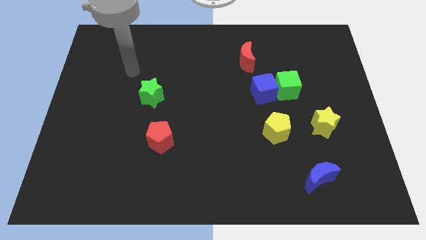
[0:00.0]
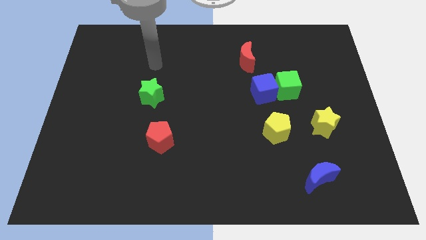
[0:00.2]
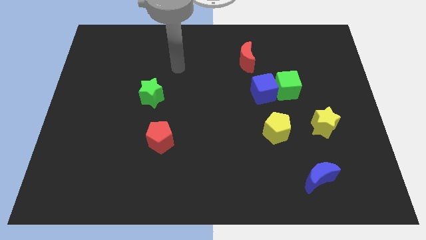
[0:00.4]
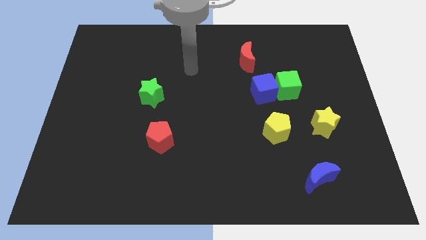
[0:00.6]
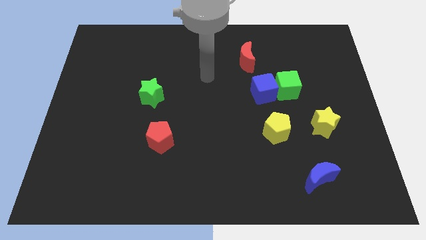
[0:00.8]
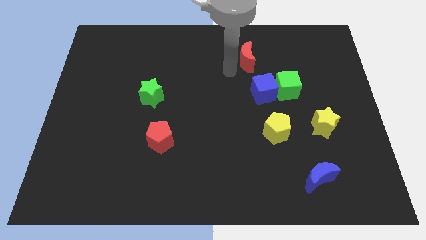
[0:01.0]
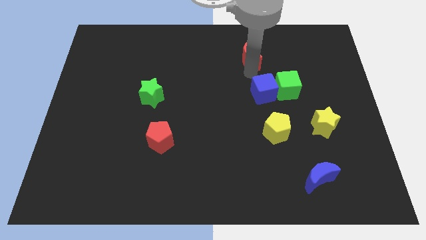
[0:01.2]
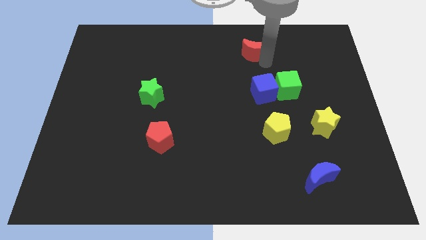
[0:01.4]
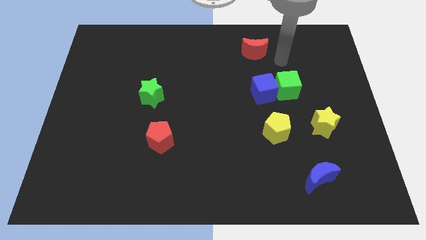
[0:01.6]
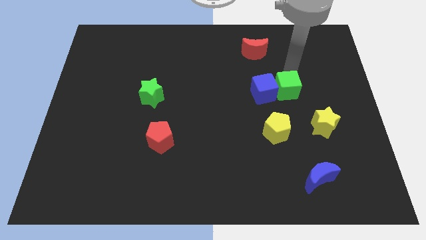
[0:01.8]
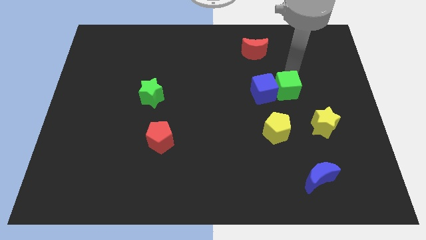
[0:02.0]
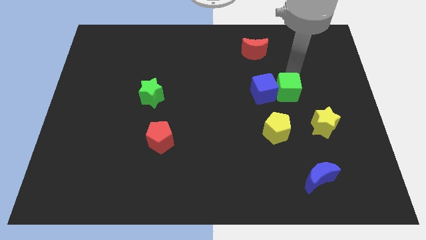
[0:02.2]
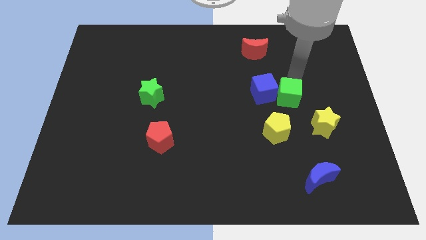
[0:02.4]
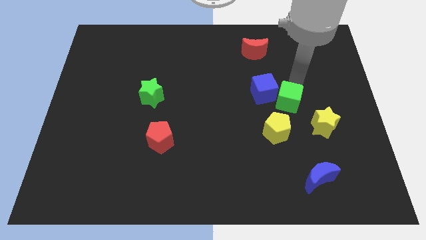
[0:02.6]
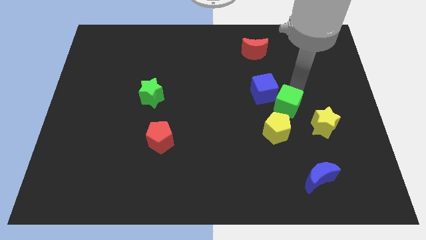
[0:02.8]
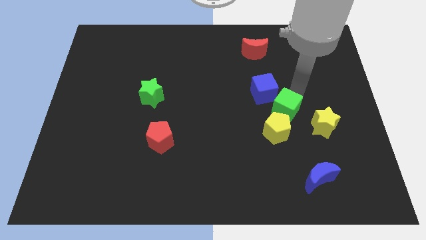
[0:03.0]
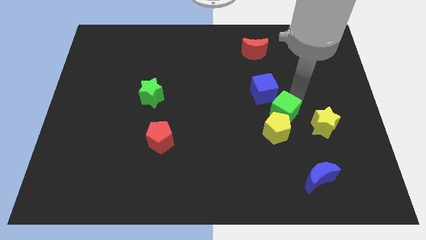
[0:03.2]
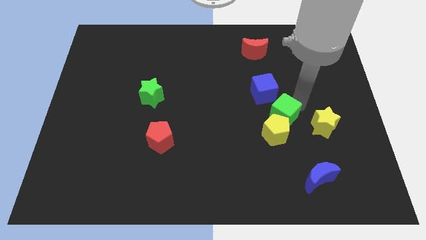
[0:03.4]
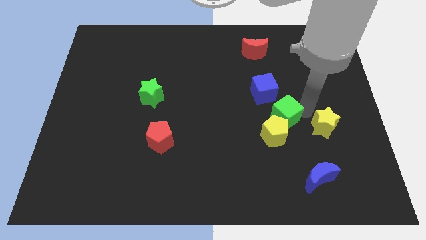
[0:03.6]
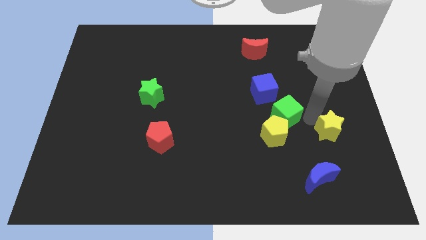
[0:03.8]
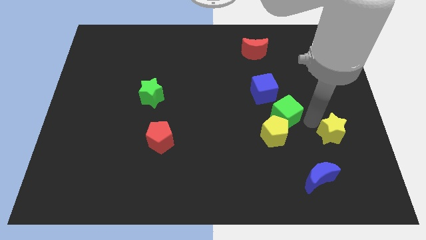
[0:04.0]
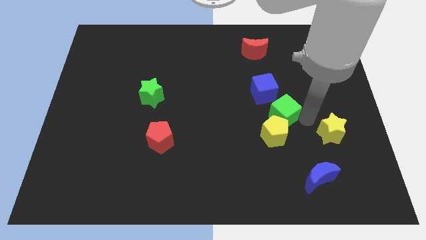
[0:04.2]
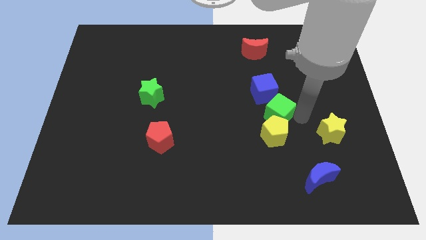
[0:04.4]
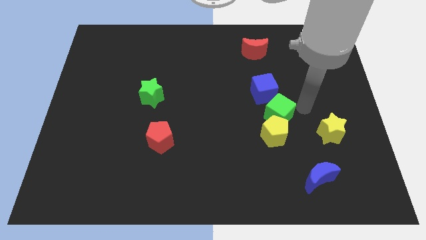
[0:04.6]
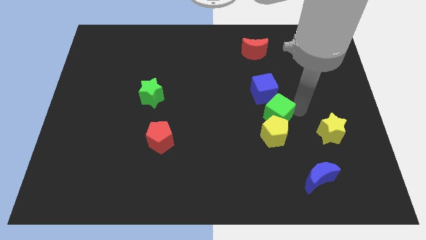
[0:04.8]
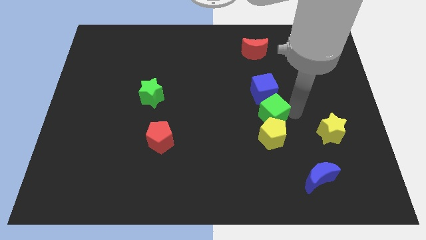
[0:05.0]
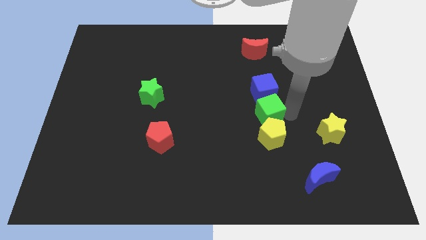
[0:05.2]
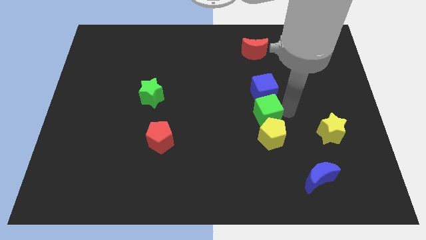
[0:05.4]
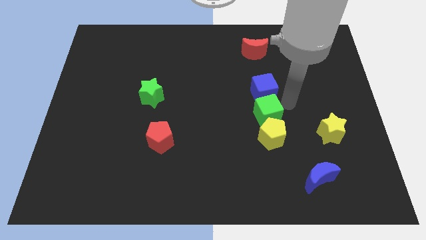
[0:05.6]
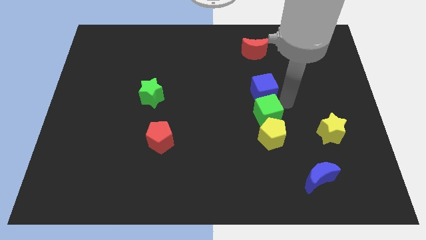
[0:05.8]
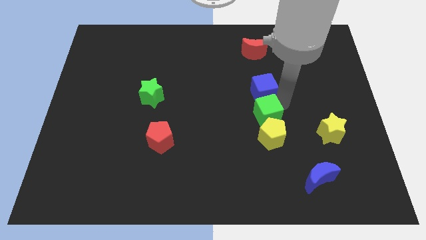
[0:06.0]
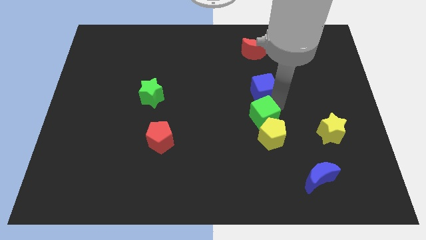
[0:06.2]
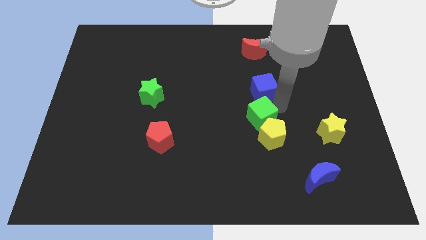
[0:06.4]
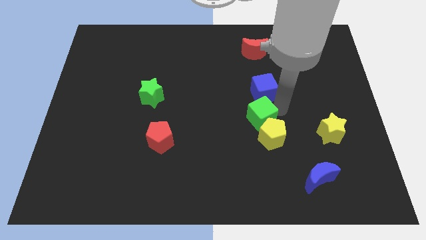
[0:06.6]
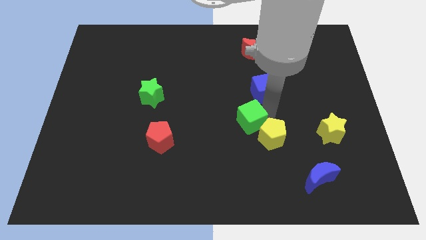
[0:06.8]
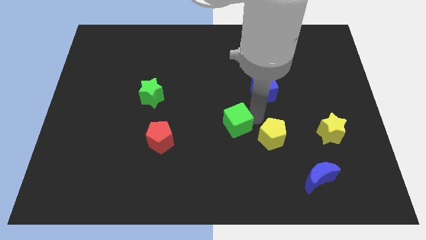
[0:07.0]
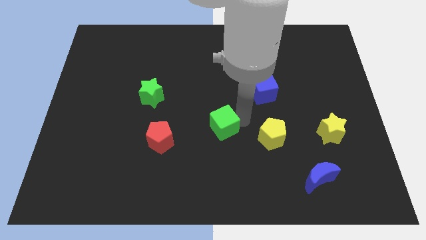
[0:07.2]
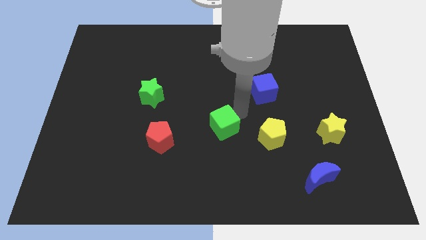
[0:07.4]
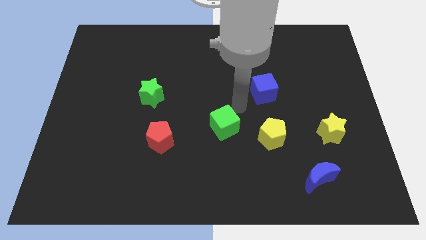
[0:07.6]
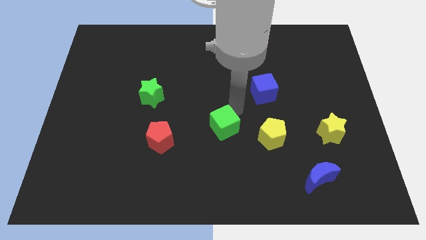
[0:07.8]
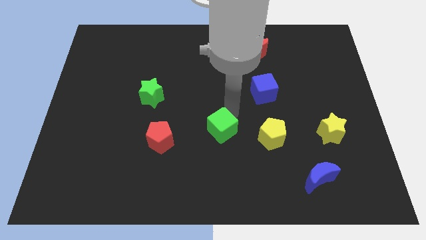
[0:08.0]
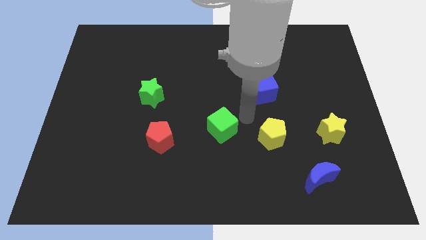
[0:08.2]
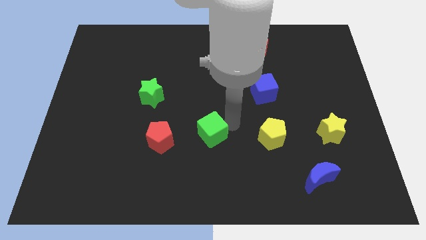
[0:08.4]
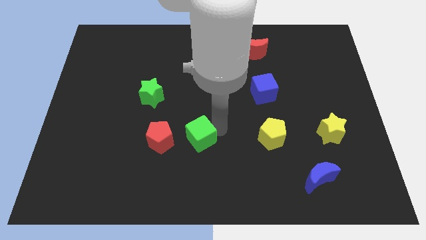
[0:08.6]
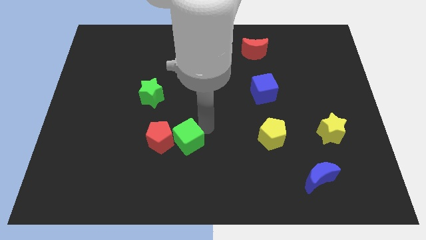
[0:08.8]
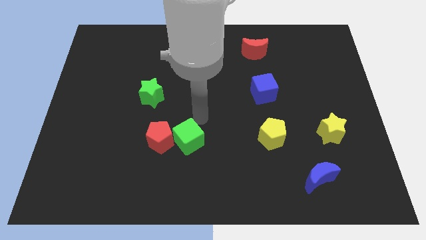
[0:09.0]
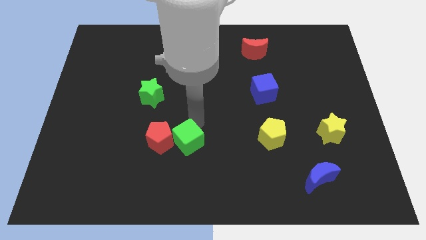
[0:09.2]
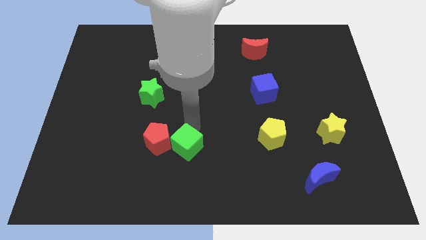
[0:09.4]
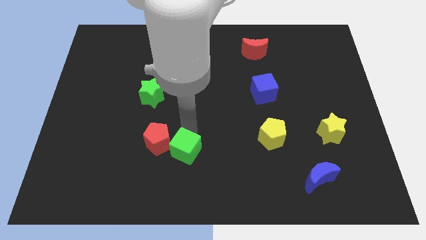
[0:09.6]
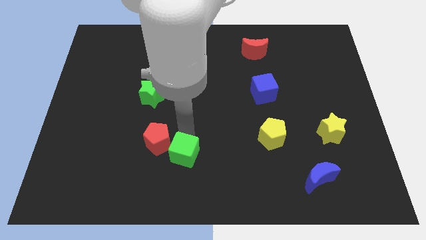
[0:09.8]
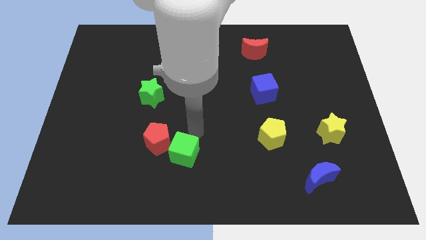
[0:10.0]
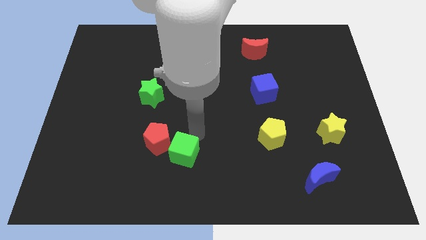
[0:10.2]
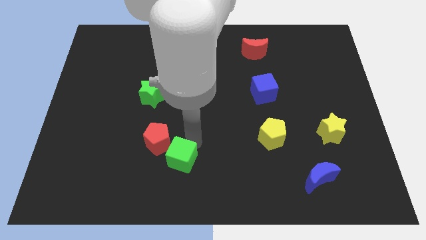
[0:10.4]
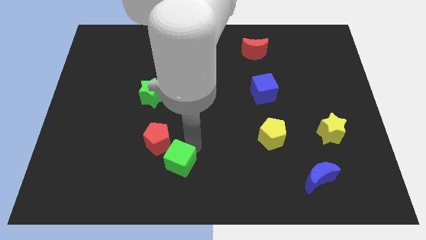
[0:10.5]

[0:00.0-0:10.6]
move the green cube below the red pentagon

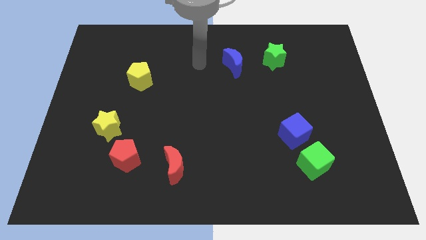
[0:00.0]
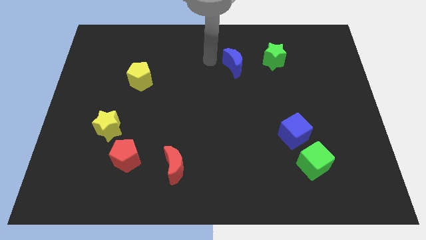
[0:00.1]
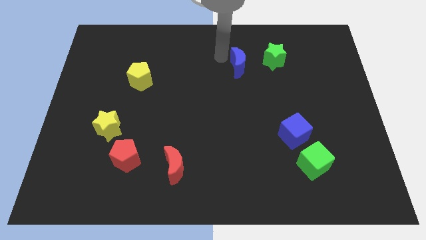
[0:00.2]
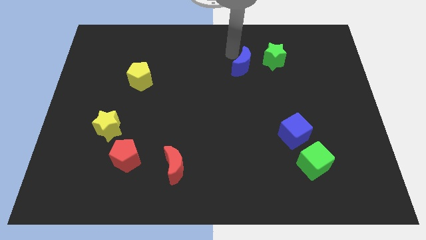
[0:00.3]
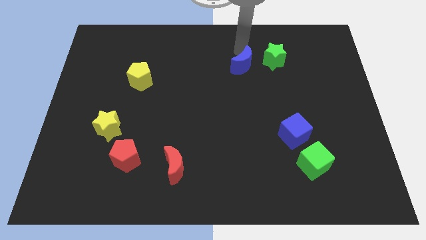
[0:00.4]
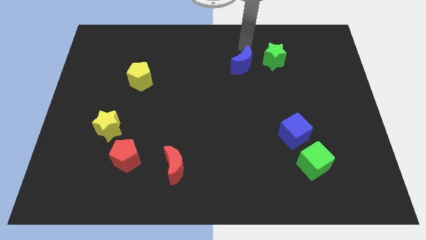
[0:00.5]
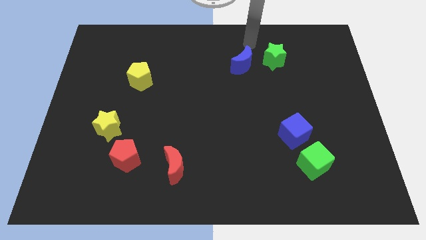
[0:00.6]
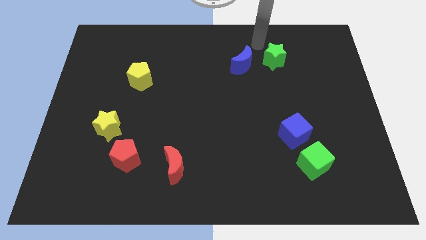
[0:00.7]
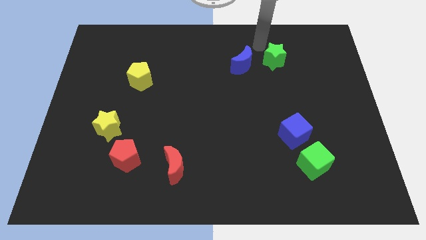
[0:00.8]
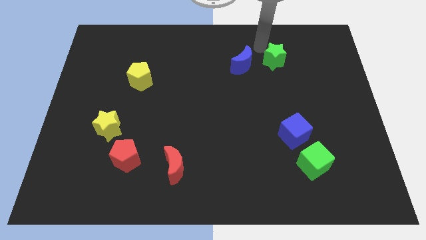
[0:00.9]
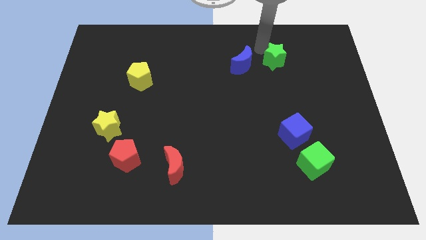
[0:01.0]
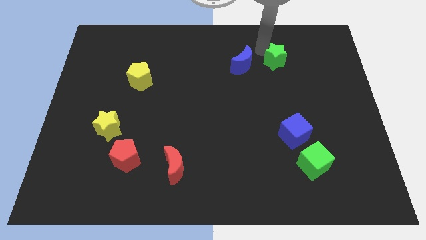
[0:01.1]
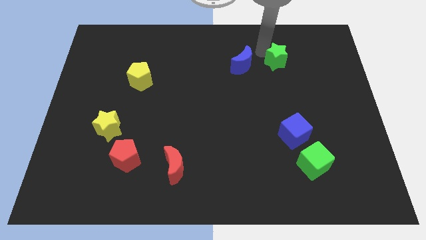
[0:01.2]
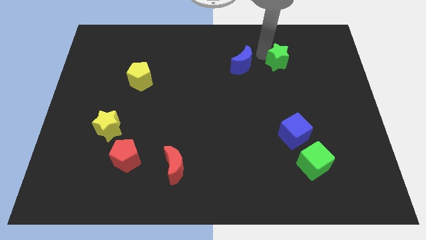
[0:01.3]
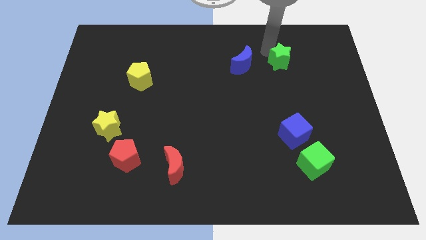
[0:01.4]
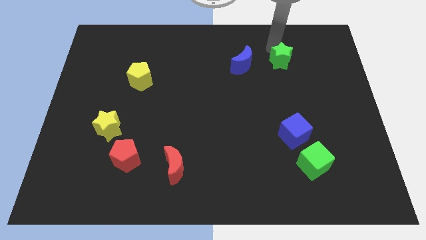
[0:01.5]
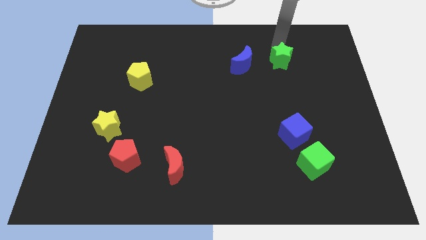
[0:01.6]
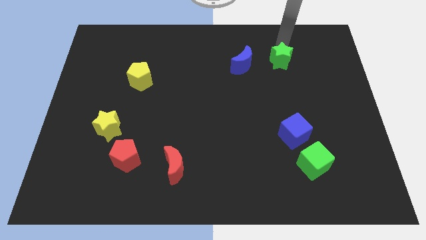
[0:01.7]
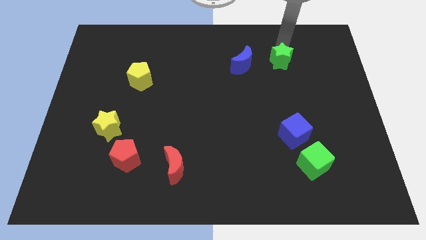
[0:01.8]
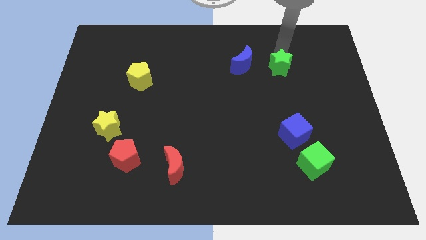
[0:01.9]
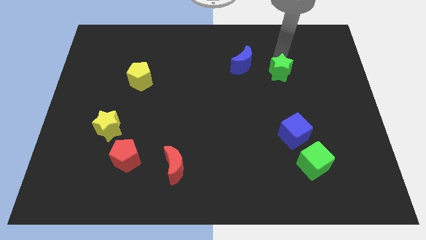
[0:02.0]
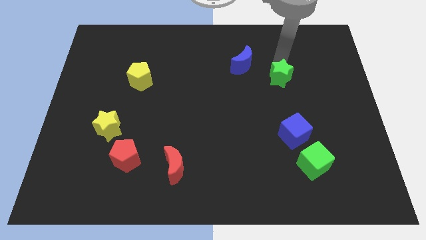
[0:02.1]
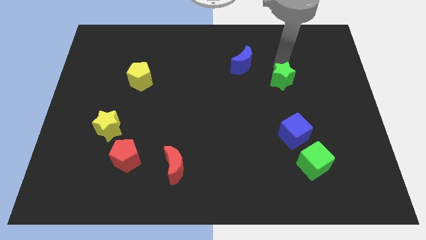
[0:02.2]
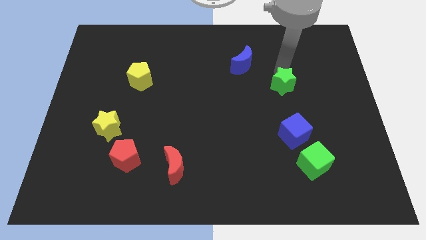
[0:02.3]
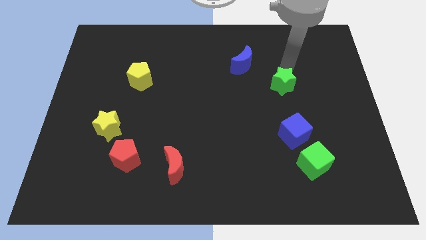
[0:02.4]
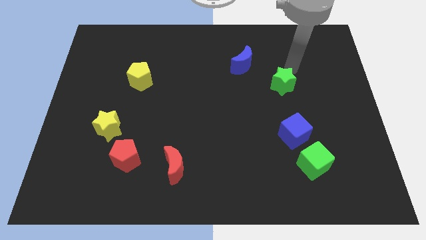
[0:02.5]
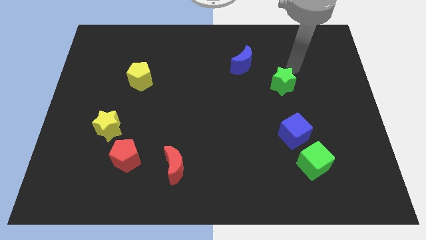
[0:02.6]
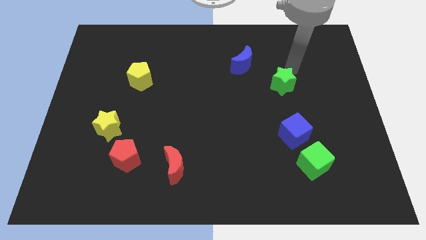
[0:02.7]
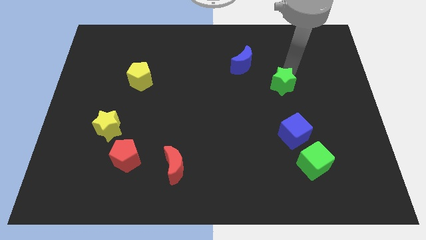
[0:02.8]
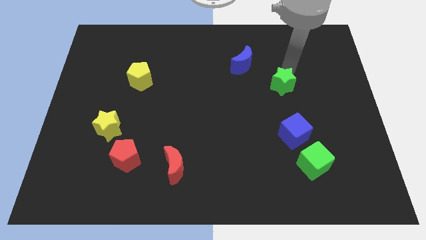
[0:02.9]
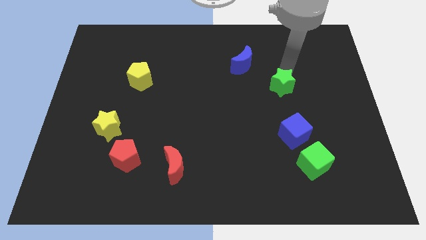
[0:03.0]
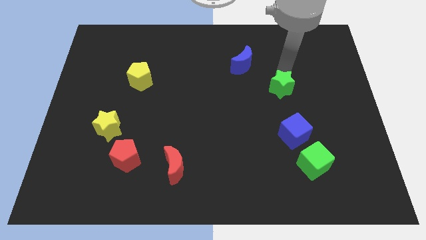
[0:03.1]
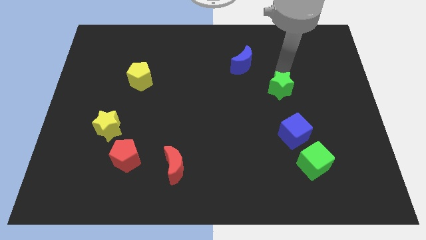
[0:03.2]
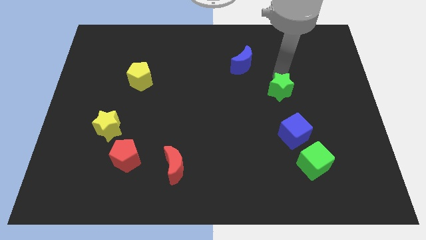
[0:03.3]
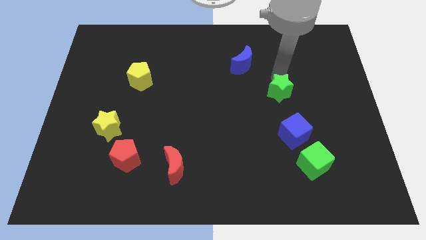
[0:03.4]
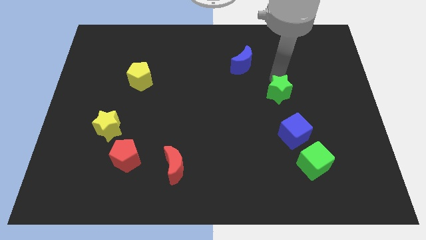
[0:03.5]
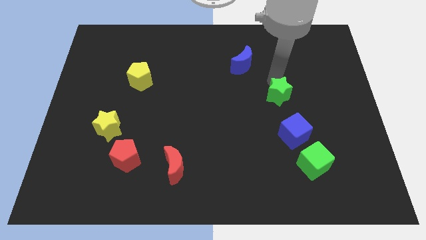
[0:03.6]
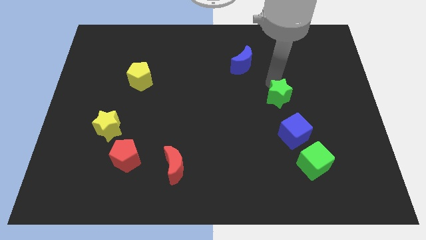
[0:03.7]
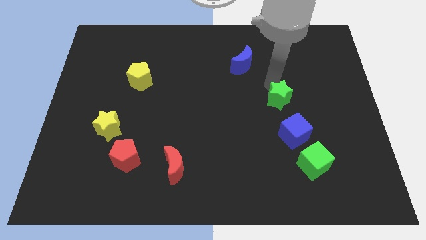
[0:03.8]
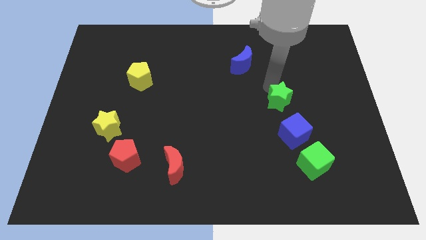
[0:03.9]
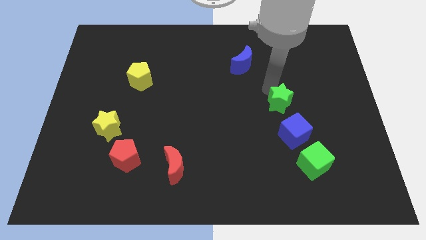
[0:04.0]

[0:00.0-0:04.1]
push the green star to the top left of the blue cube
